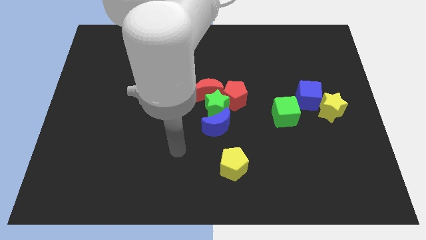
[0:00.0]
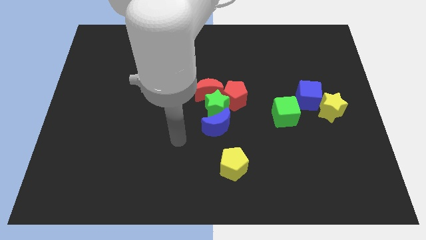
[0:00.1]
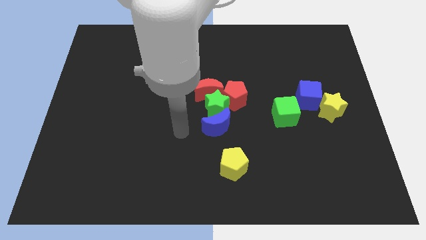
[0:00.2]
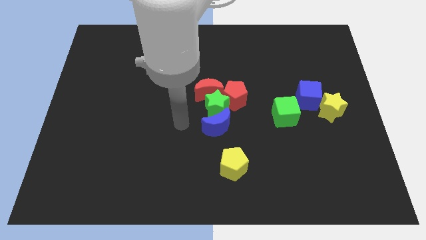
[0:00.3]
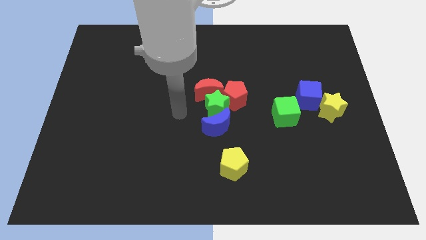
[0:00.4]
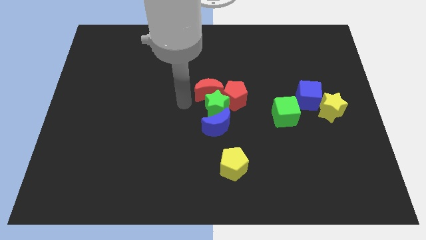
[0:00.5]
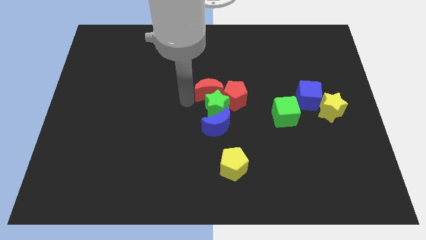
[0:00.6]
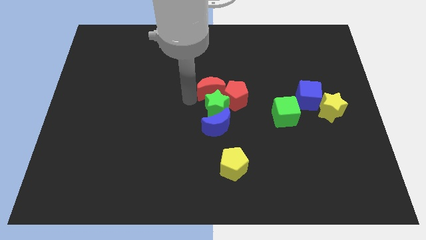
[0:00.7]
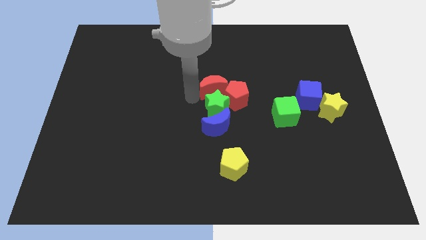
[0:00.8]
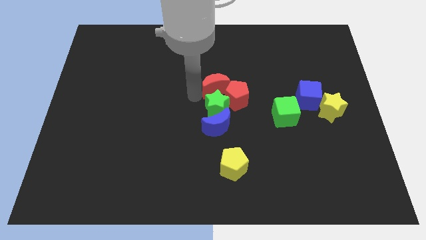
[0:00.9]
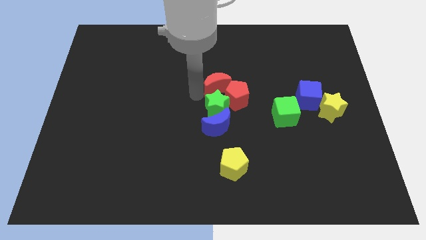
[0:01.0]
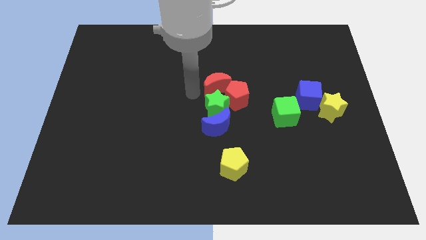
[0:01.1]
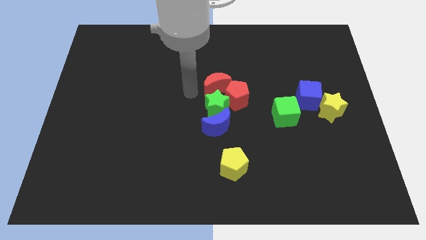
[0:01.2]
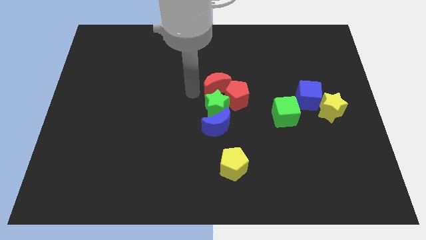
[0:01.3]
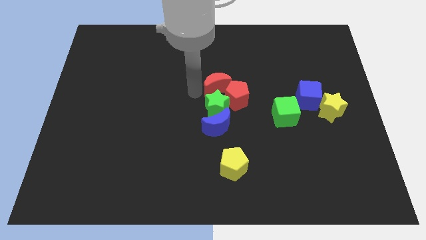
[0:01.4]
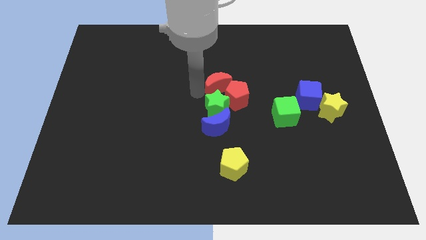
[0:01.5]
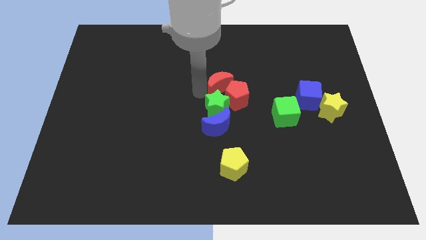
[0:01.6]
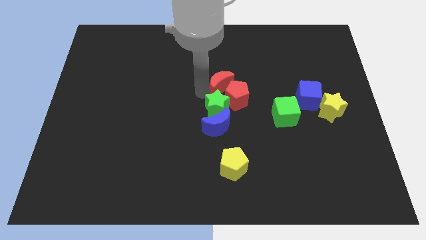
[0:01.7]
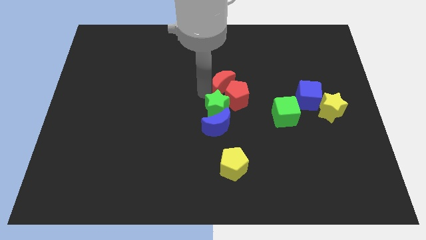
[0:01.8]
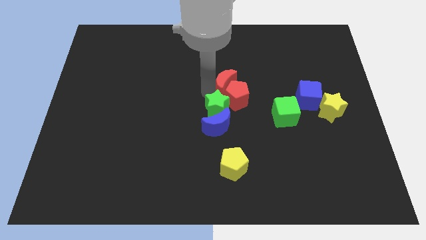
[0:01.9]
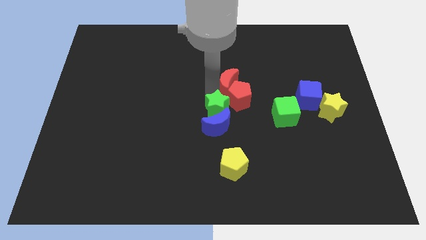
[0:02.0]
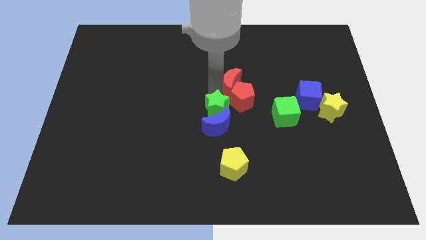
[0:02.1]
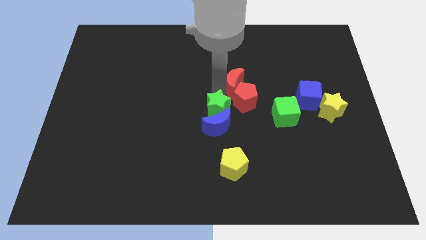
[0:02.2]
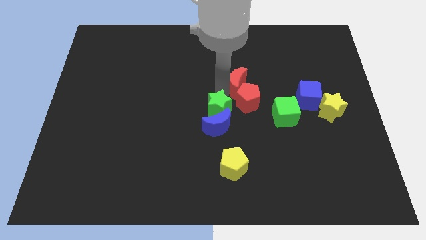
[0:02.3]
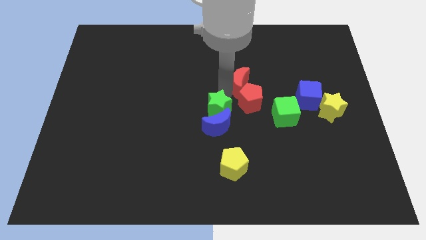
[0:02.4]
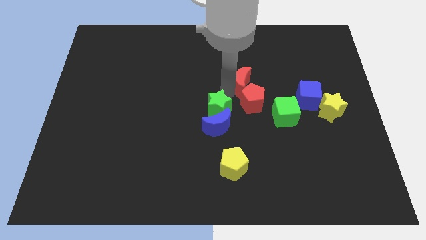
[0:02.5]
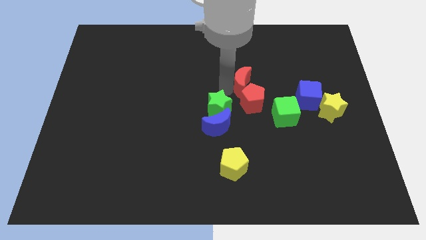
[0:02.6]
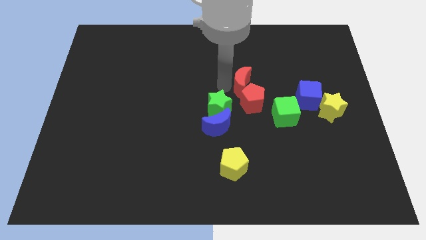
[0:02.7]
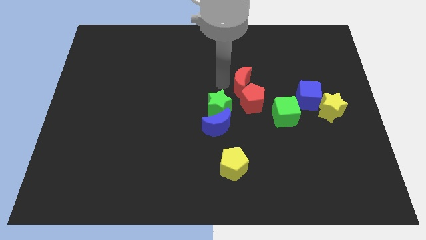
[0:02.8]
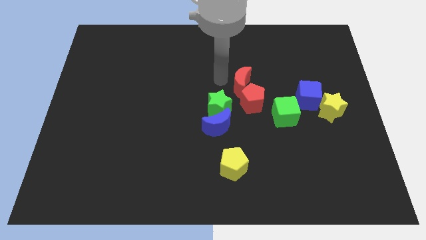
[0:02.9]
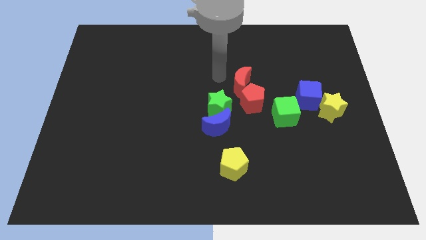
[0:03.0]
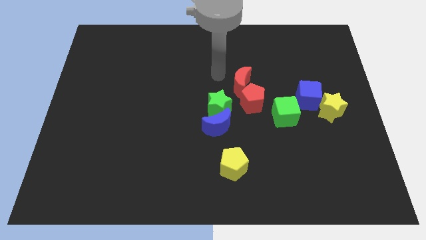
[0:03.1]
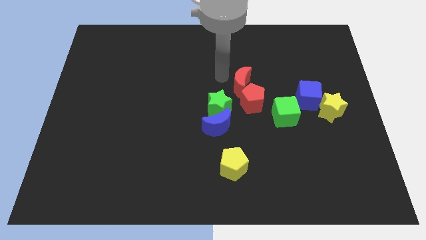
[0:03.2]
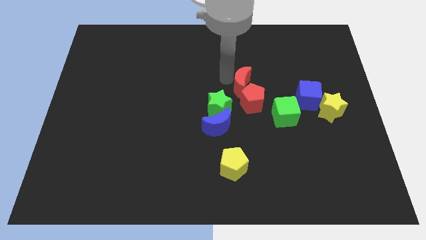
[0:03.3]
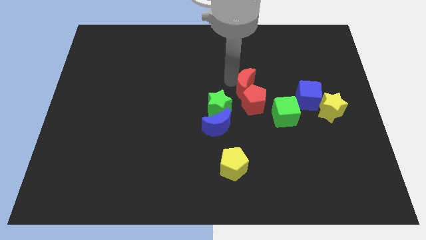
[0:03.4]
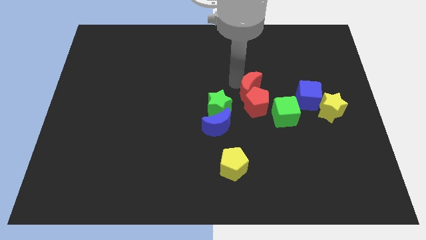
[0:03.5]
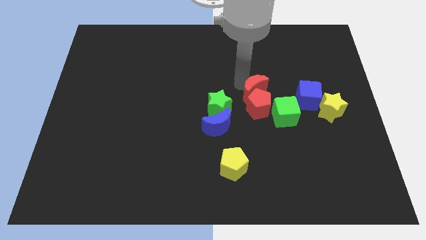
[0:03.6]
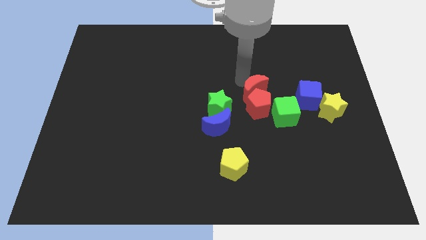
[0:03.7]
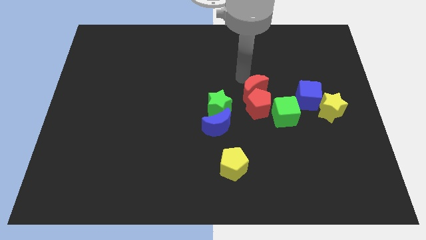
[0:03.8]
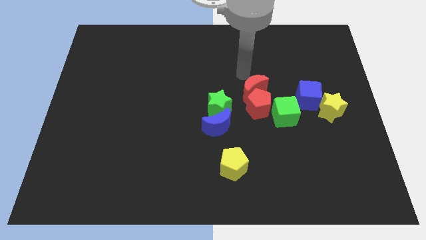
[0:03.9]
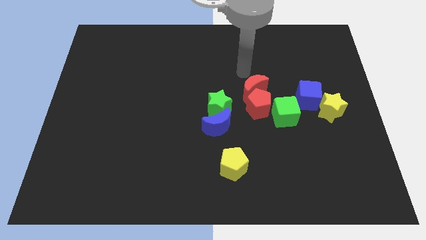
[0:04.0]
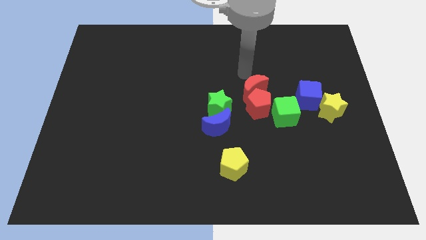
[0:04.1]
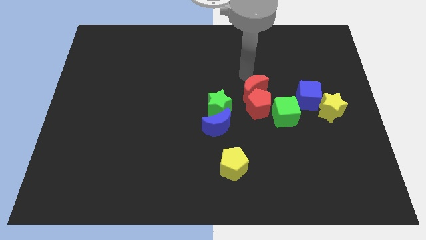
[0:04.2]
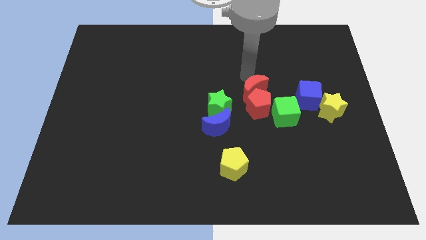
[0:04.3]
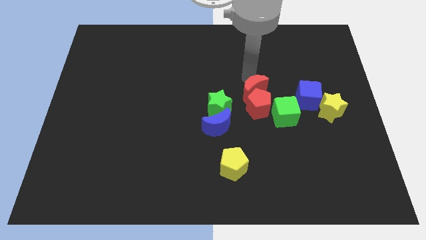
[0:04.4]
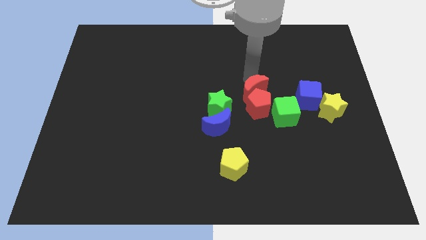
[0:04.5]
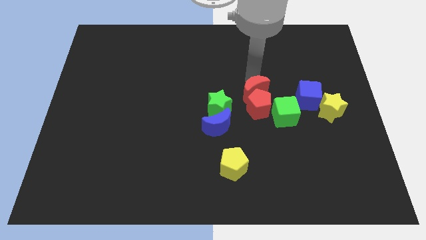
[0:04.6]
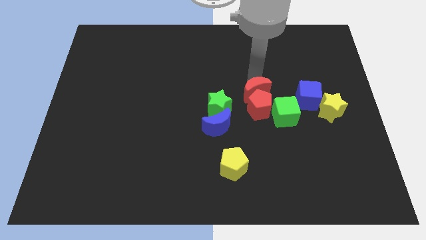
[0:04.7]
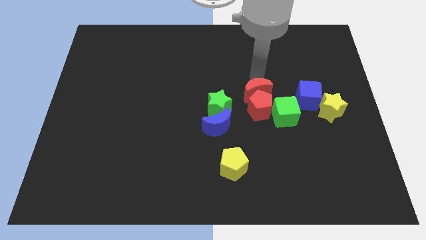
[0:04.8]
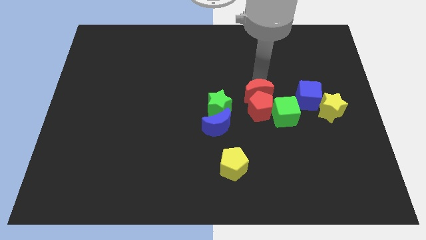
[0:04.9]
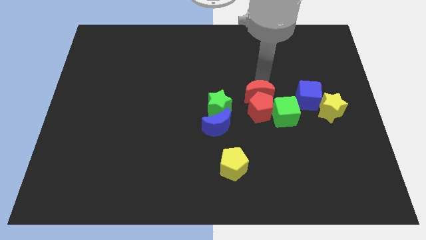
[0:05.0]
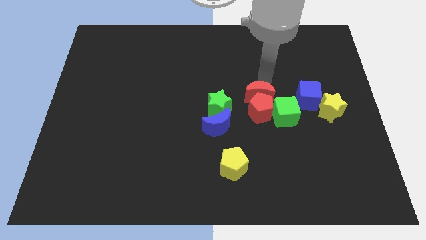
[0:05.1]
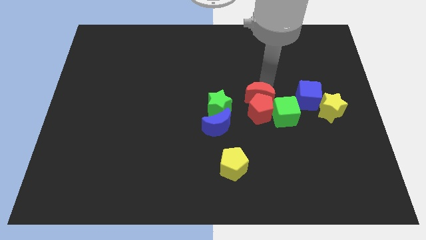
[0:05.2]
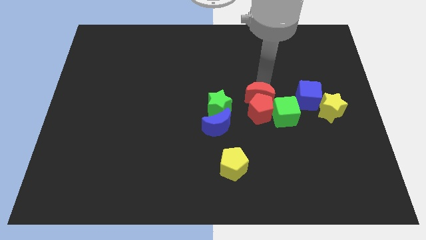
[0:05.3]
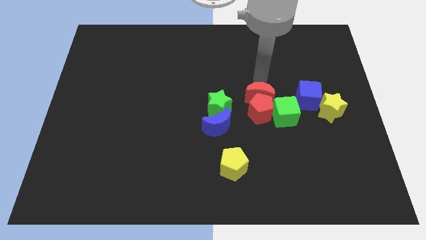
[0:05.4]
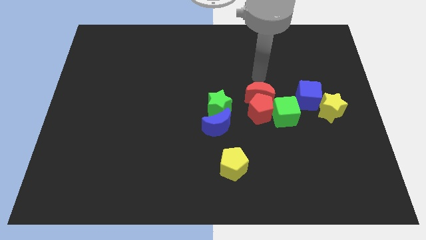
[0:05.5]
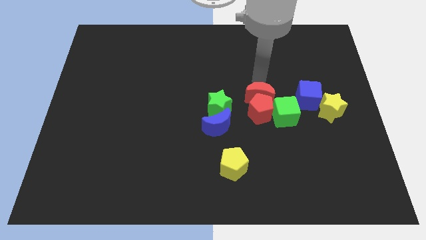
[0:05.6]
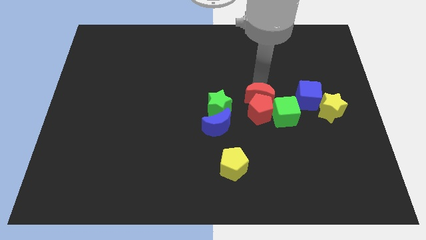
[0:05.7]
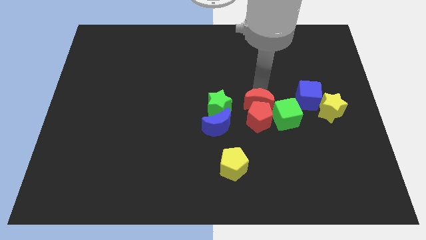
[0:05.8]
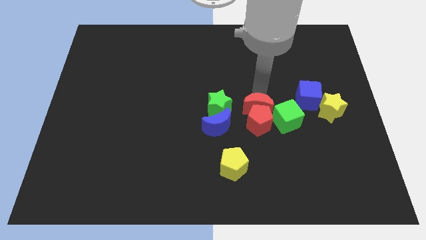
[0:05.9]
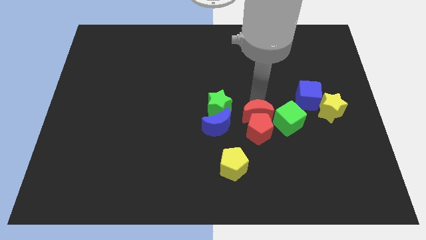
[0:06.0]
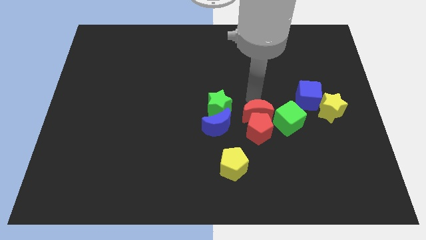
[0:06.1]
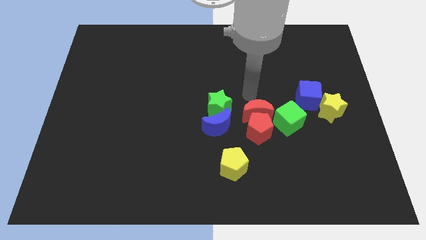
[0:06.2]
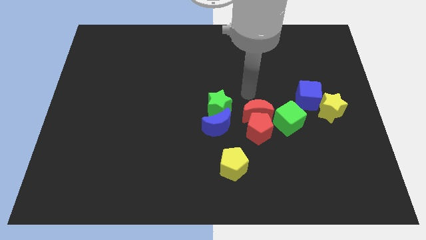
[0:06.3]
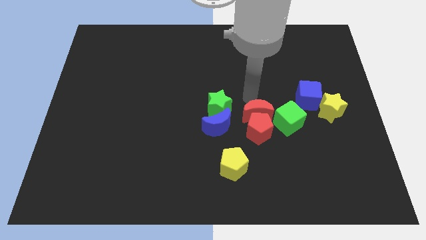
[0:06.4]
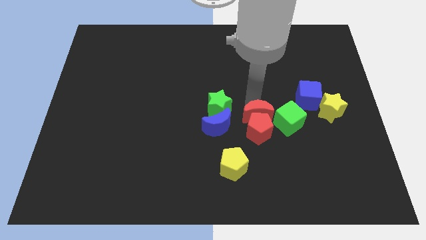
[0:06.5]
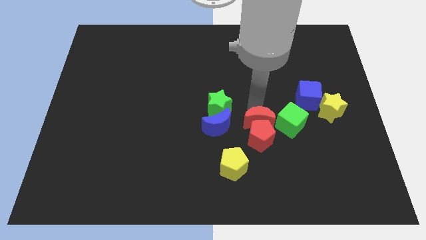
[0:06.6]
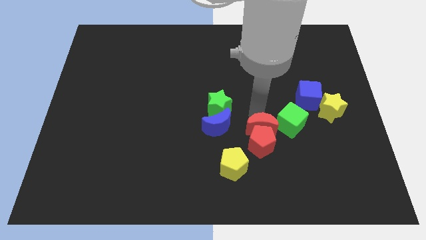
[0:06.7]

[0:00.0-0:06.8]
move the red moon to the bottom left of the green cube

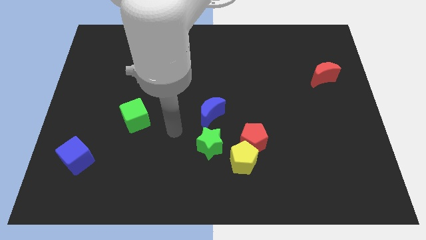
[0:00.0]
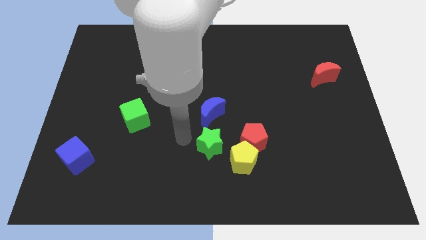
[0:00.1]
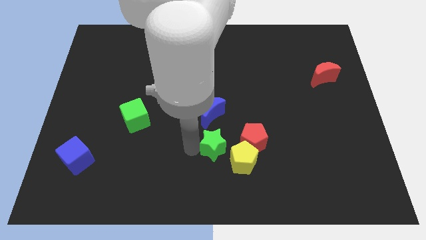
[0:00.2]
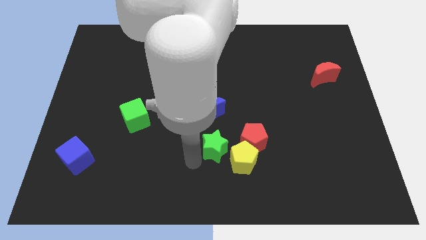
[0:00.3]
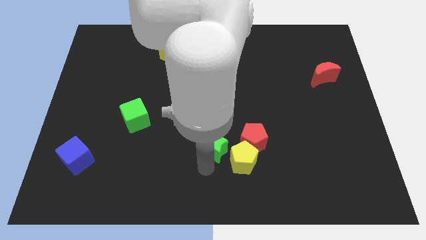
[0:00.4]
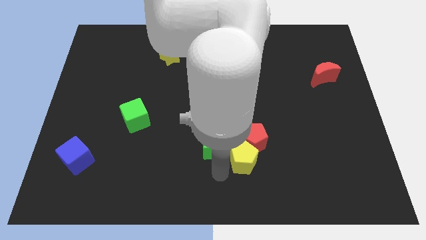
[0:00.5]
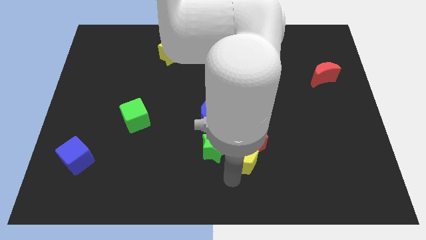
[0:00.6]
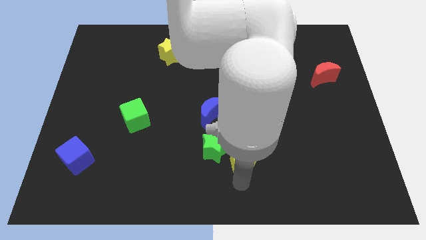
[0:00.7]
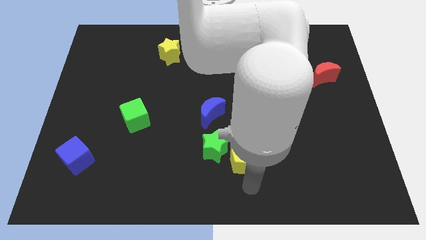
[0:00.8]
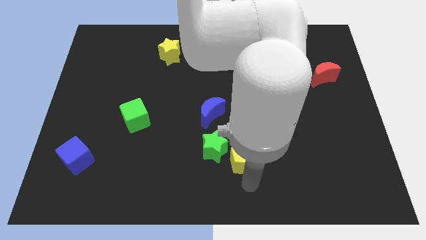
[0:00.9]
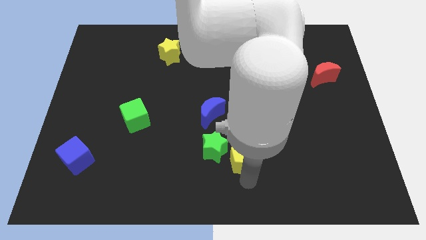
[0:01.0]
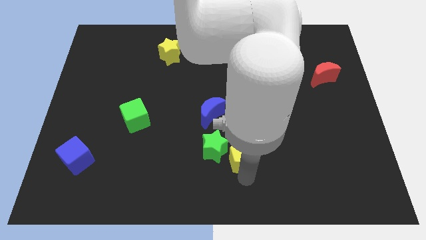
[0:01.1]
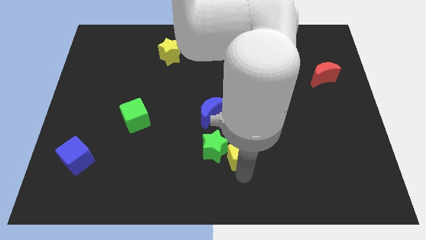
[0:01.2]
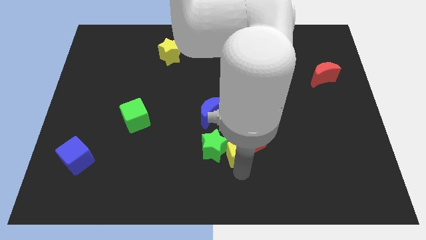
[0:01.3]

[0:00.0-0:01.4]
put the yellow pentagon diagonally down and to the right of the blue moon
